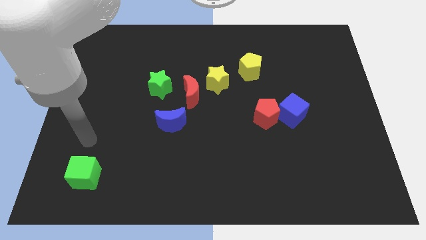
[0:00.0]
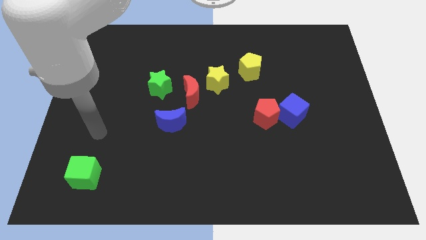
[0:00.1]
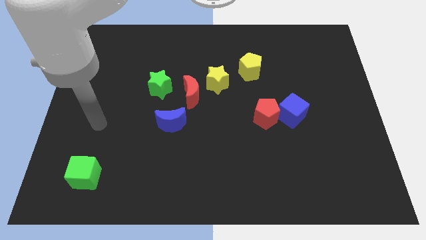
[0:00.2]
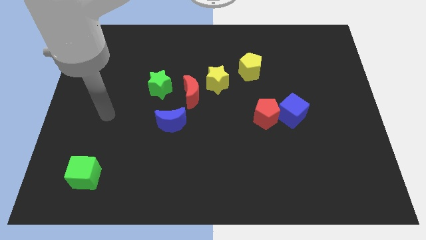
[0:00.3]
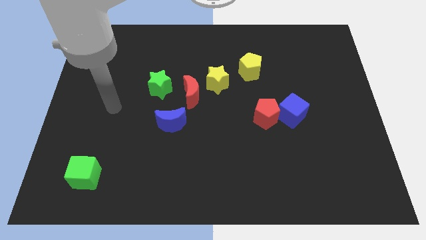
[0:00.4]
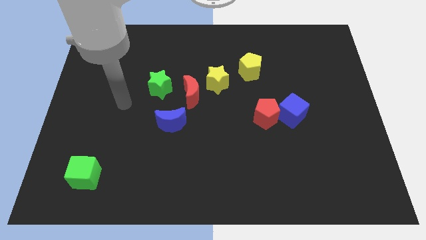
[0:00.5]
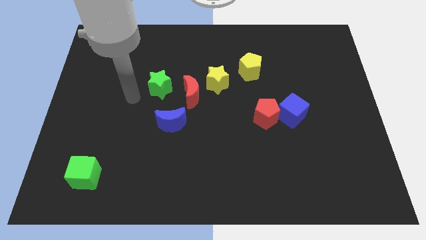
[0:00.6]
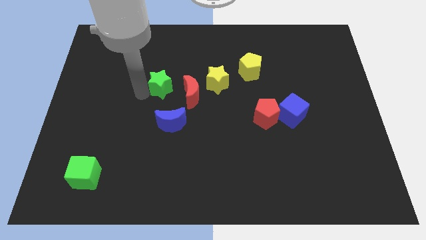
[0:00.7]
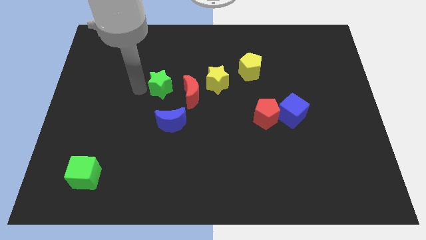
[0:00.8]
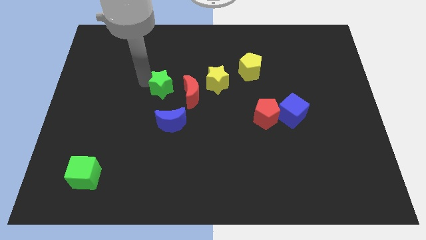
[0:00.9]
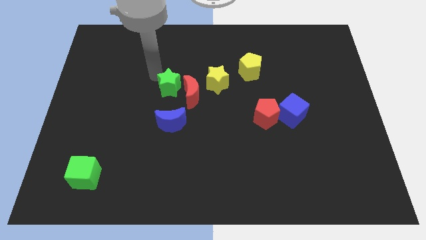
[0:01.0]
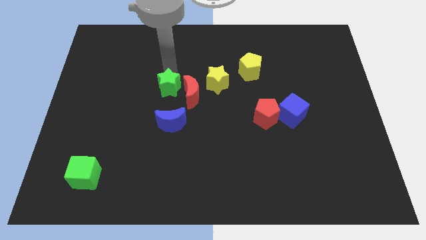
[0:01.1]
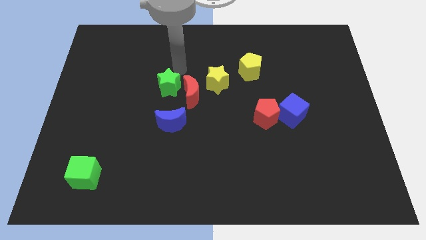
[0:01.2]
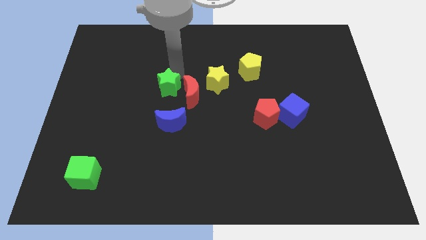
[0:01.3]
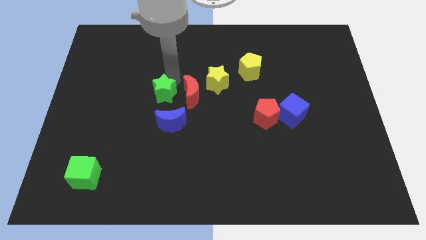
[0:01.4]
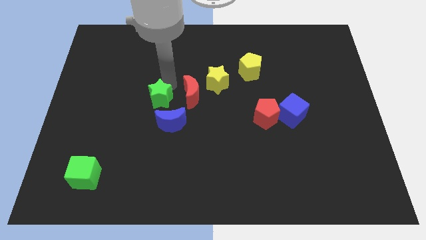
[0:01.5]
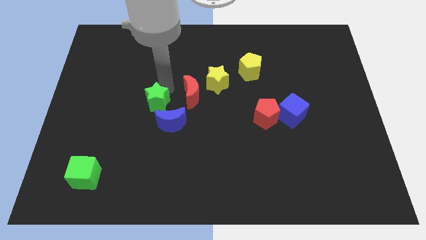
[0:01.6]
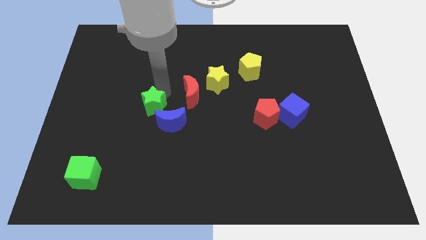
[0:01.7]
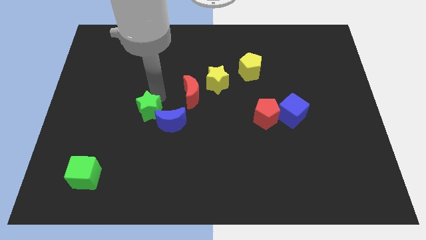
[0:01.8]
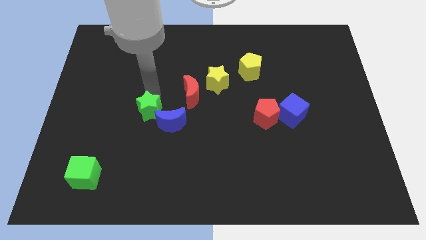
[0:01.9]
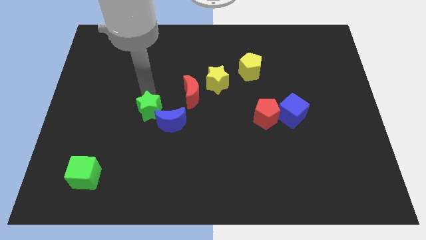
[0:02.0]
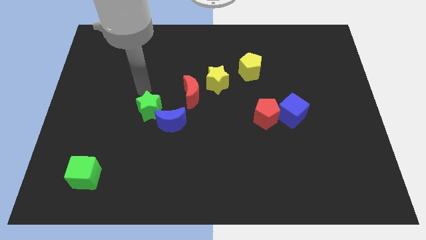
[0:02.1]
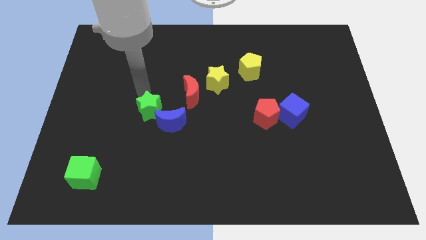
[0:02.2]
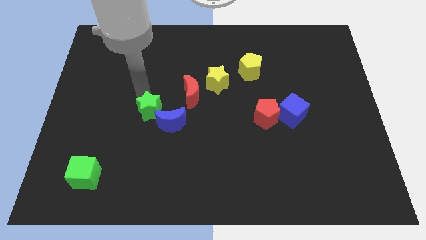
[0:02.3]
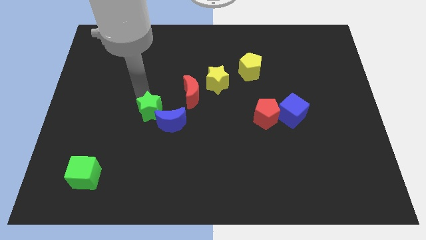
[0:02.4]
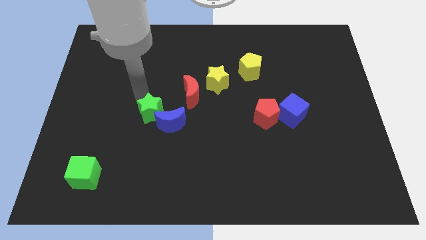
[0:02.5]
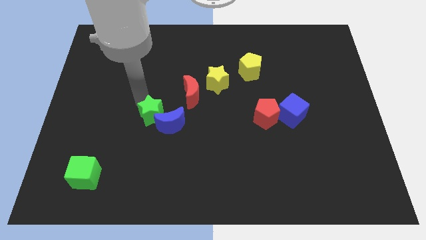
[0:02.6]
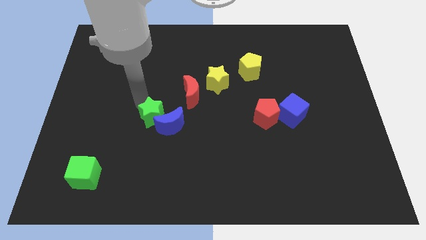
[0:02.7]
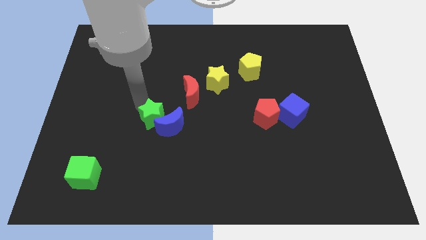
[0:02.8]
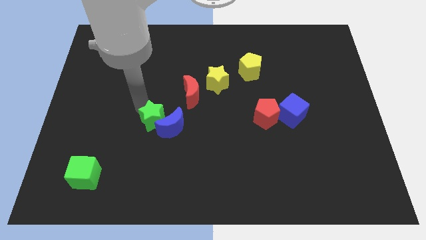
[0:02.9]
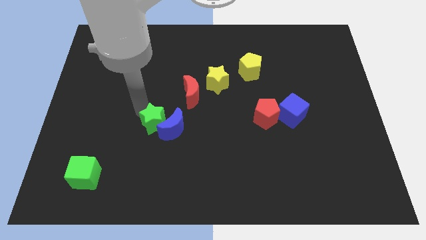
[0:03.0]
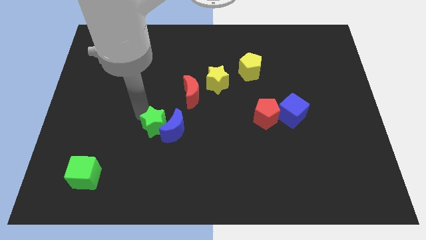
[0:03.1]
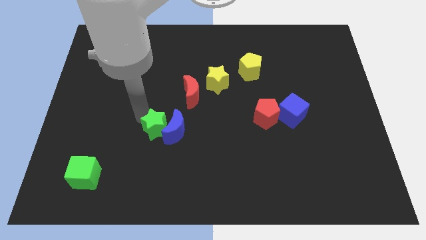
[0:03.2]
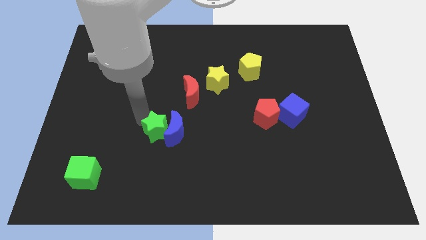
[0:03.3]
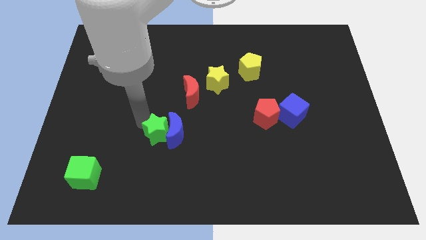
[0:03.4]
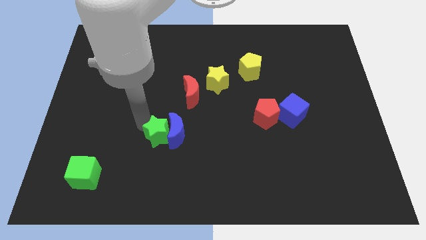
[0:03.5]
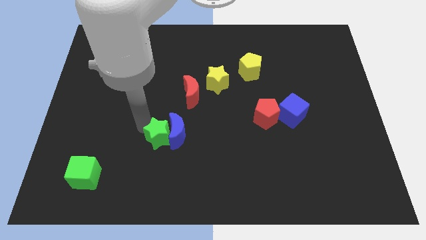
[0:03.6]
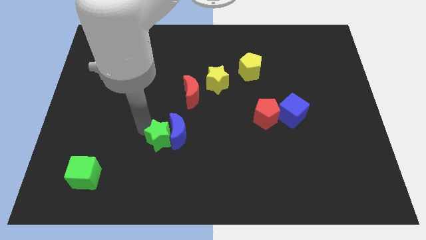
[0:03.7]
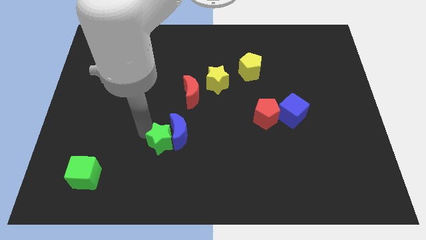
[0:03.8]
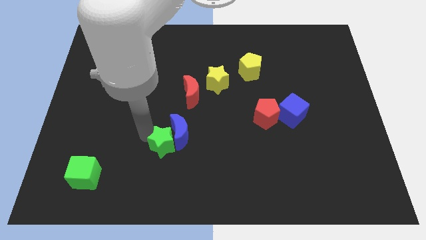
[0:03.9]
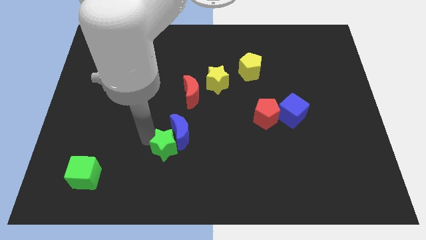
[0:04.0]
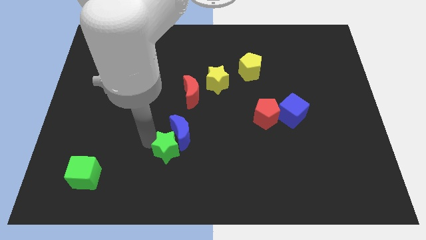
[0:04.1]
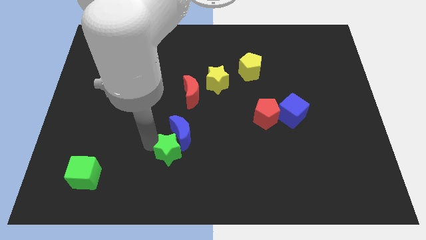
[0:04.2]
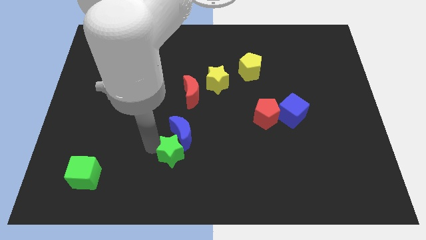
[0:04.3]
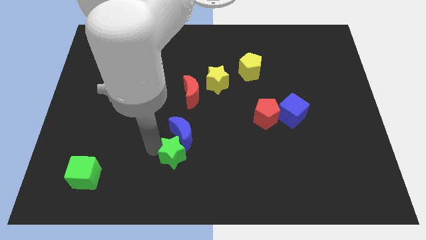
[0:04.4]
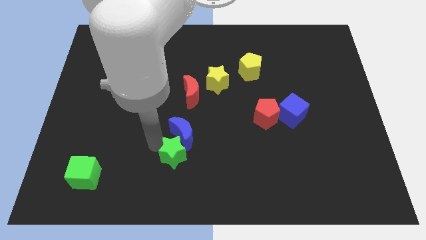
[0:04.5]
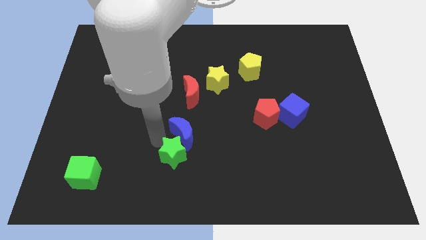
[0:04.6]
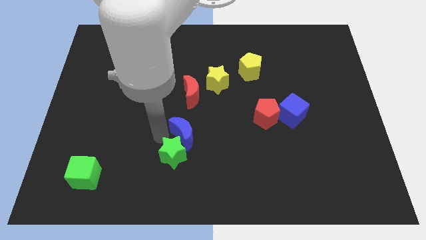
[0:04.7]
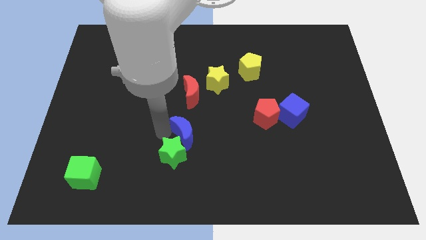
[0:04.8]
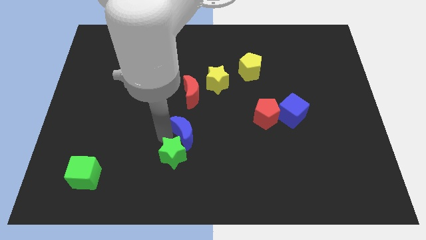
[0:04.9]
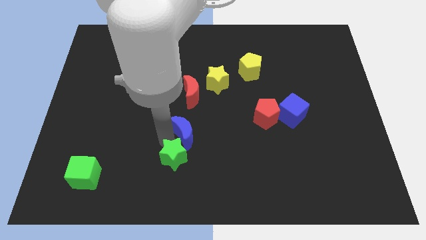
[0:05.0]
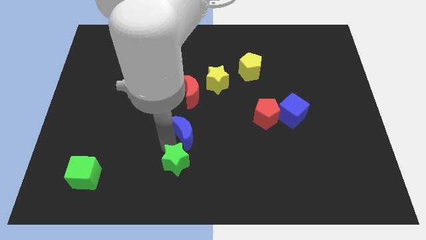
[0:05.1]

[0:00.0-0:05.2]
put the green star to the bottom side
